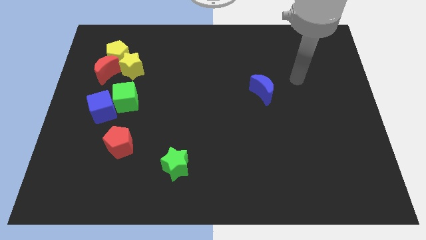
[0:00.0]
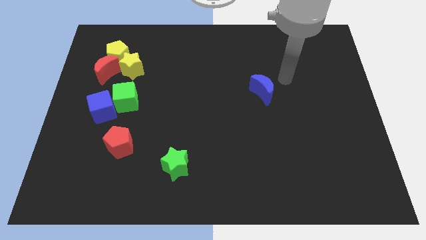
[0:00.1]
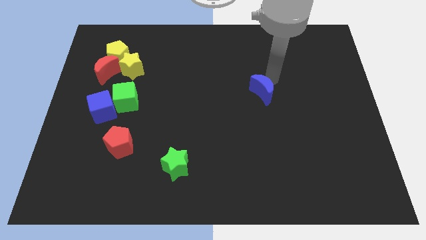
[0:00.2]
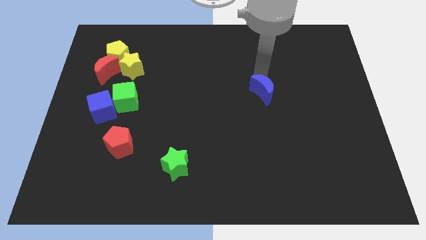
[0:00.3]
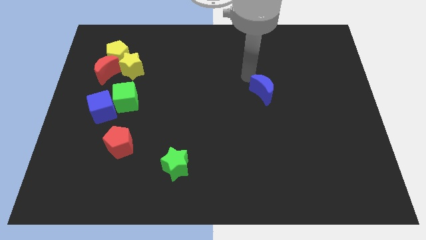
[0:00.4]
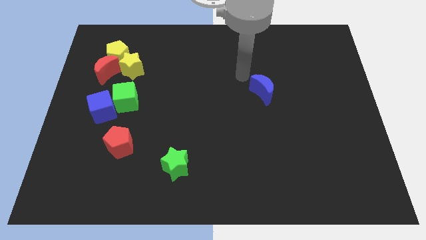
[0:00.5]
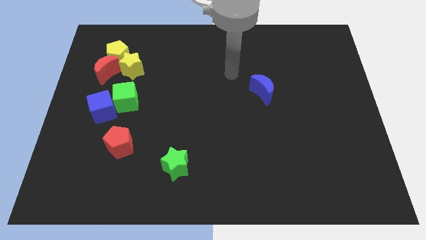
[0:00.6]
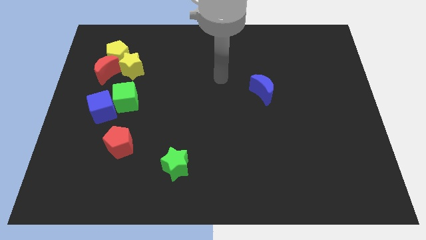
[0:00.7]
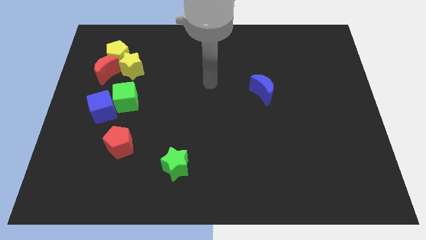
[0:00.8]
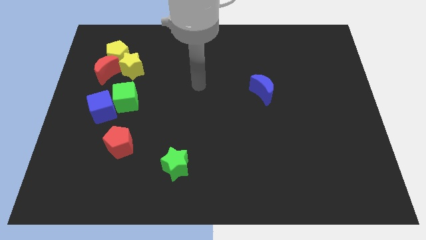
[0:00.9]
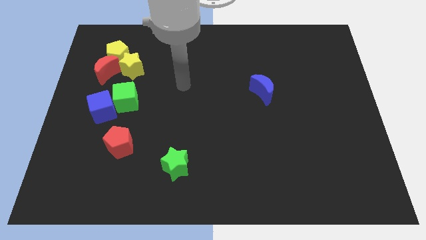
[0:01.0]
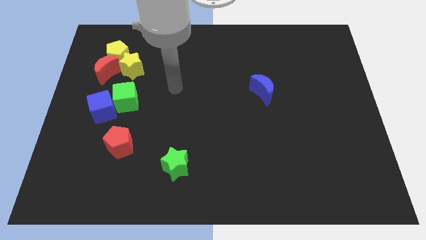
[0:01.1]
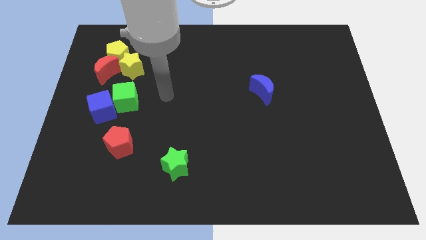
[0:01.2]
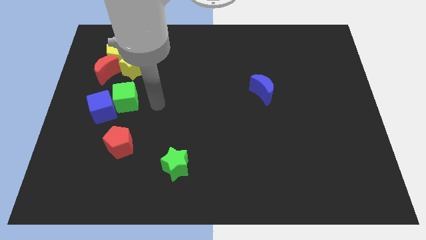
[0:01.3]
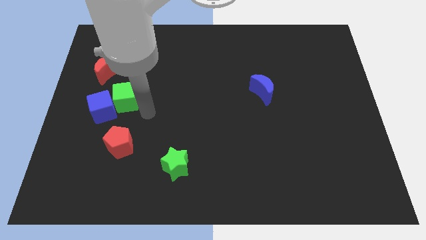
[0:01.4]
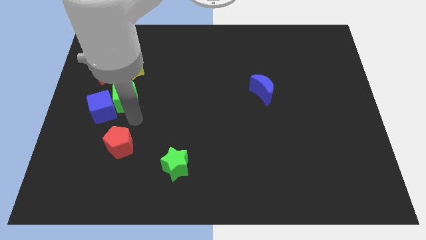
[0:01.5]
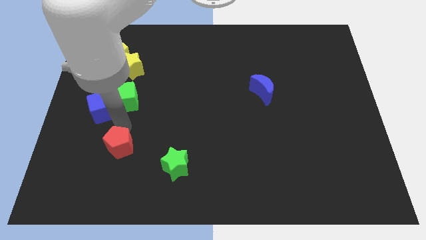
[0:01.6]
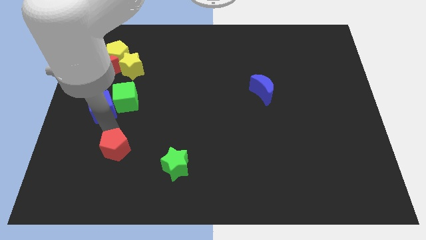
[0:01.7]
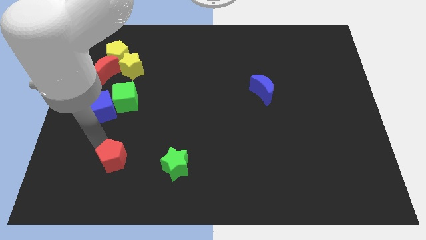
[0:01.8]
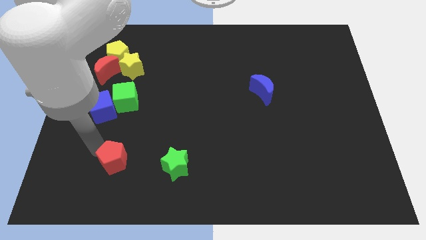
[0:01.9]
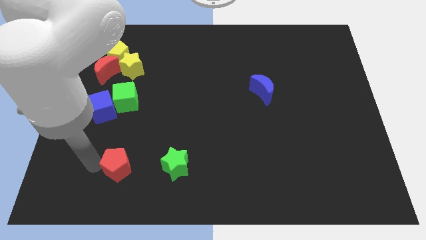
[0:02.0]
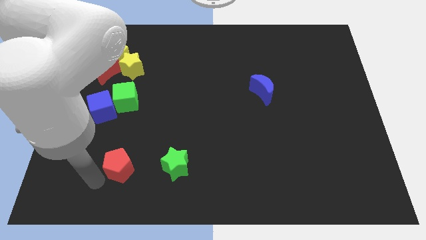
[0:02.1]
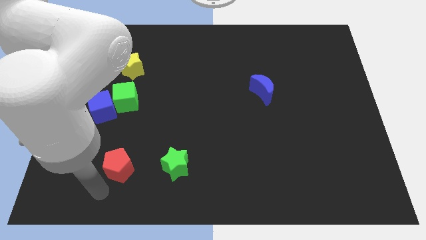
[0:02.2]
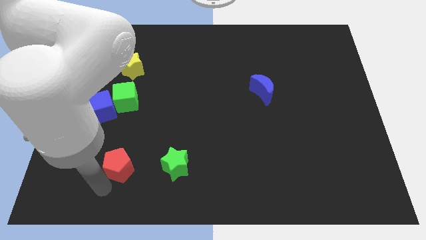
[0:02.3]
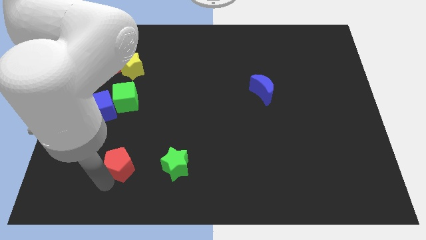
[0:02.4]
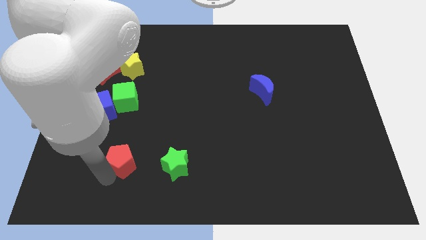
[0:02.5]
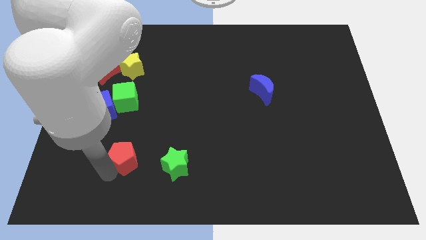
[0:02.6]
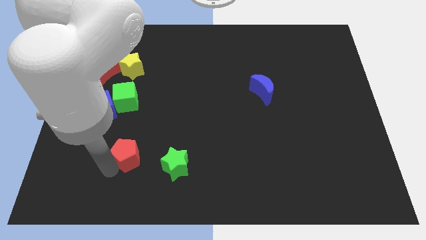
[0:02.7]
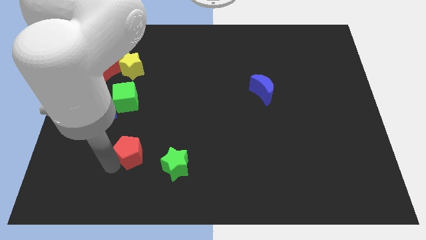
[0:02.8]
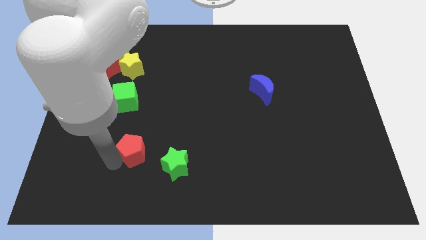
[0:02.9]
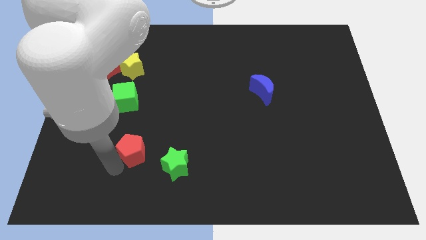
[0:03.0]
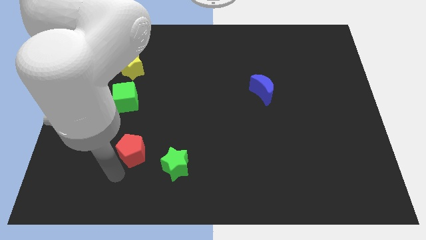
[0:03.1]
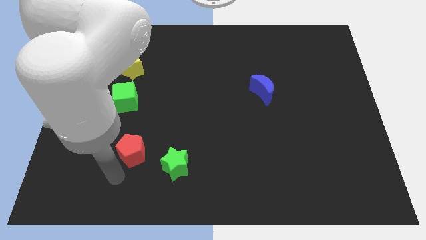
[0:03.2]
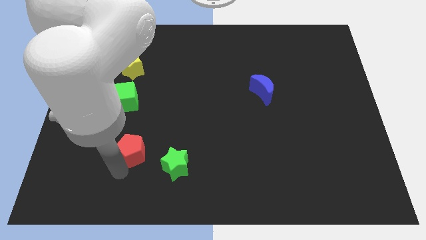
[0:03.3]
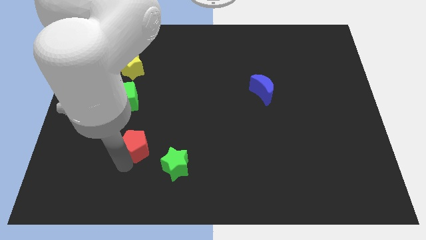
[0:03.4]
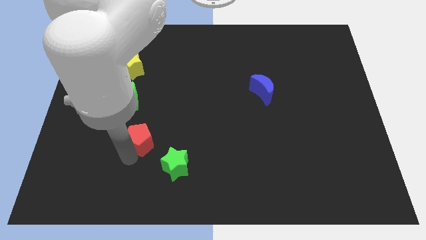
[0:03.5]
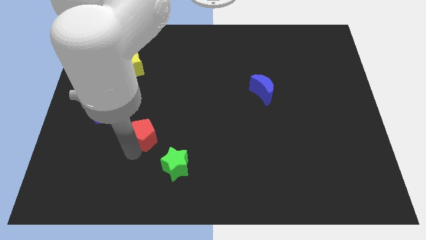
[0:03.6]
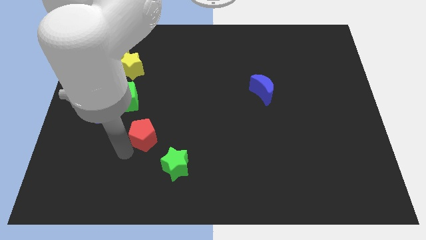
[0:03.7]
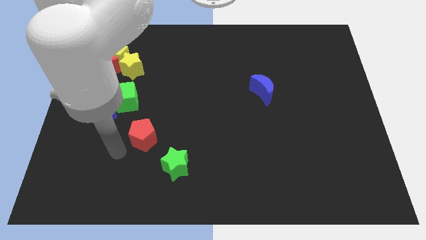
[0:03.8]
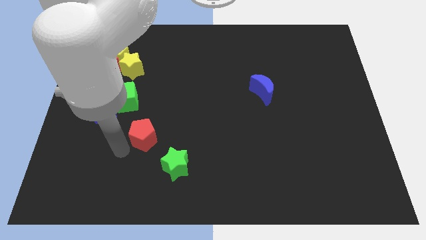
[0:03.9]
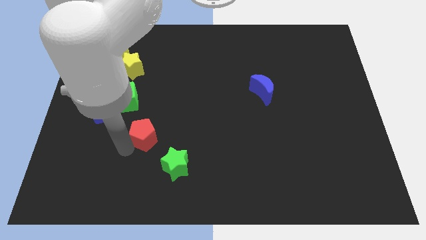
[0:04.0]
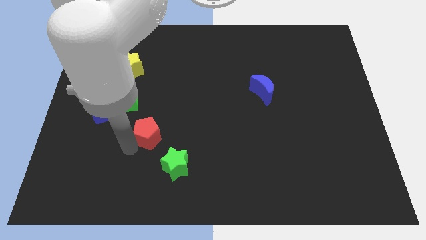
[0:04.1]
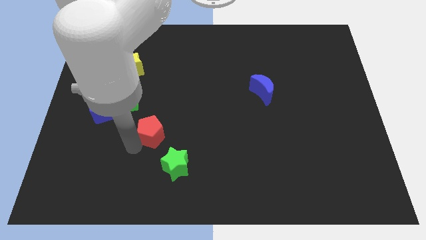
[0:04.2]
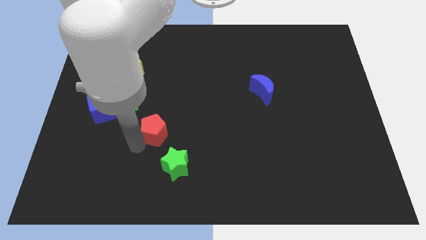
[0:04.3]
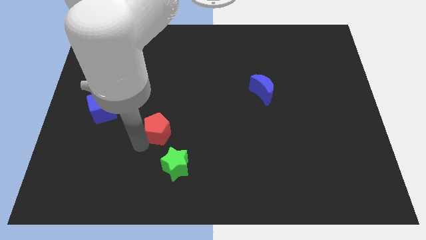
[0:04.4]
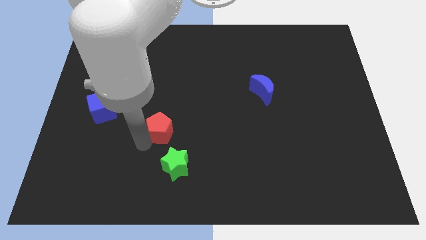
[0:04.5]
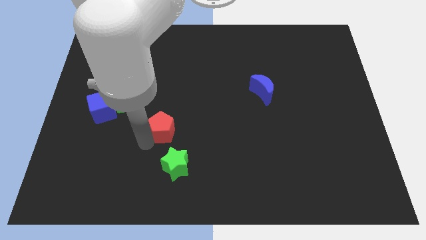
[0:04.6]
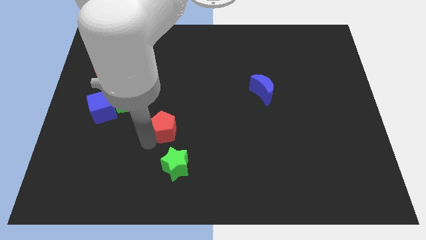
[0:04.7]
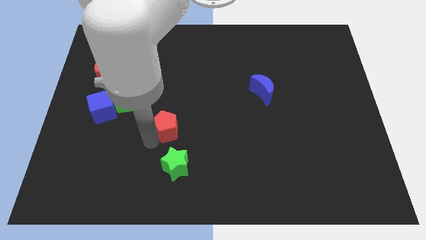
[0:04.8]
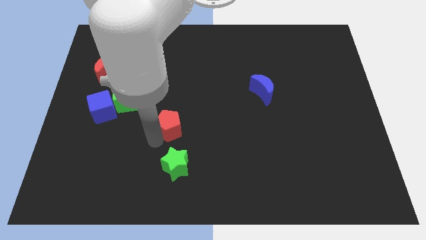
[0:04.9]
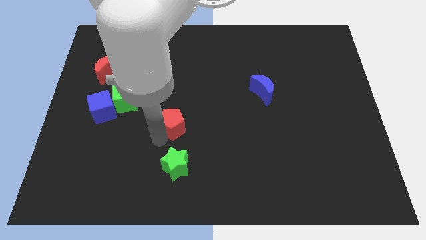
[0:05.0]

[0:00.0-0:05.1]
move the red pentagon to the center of the board

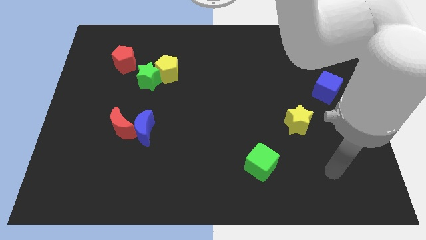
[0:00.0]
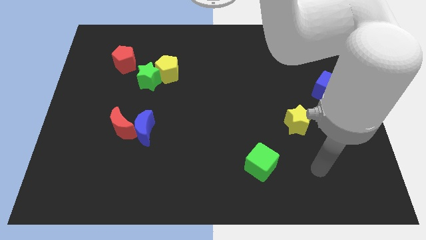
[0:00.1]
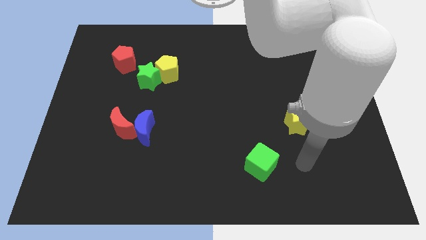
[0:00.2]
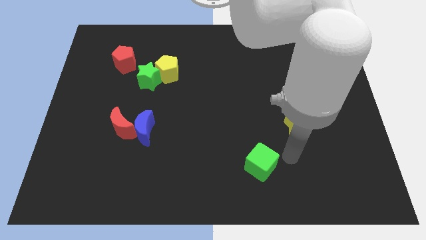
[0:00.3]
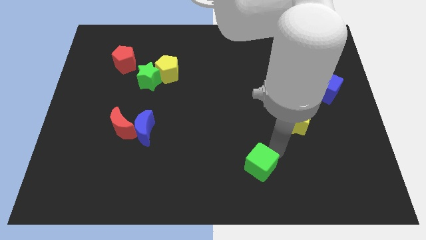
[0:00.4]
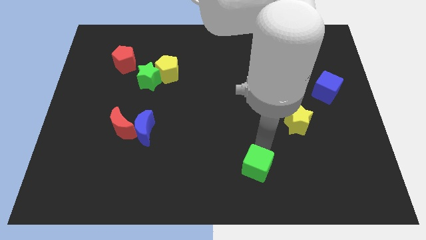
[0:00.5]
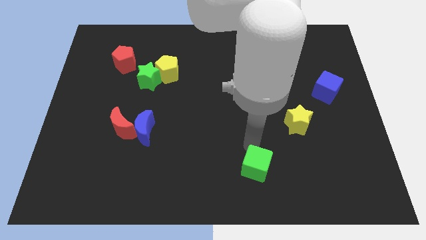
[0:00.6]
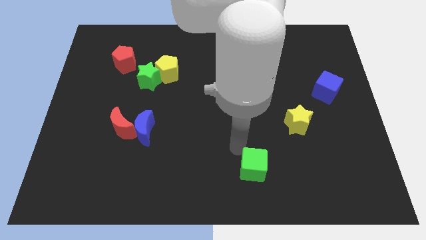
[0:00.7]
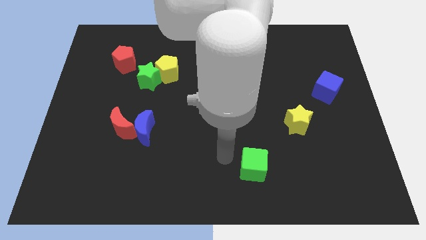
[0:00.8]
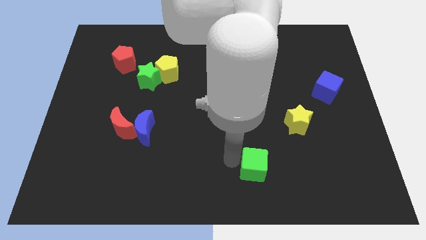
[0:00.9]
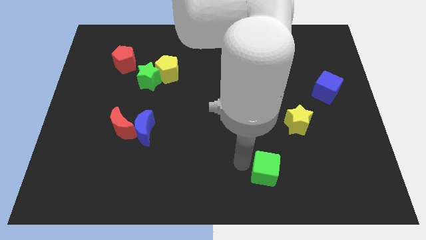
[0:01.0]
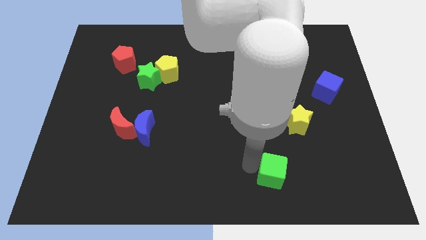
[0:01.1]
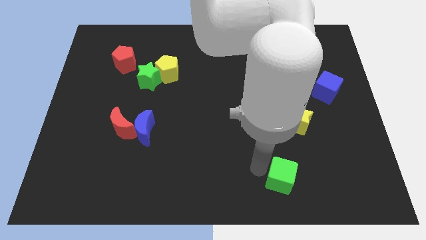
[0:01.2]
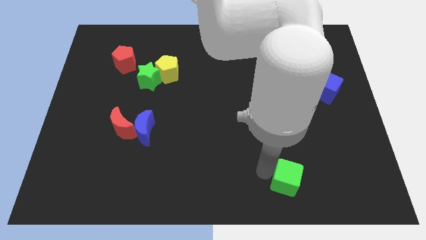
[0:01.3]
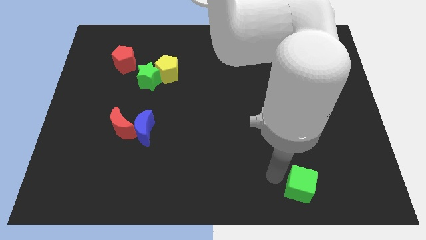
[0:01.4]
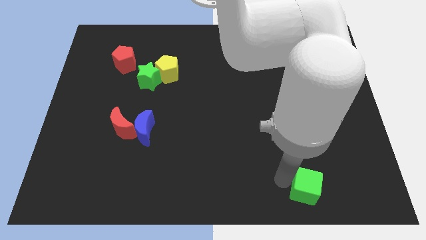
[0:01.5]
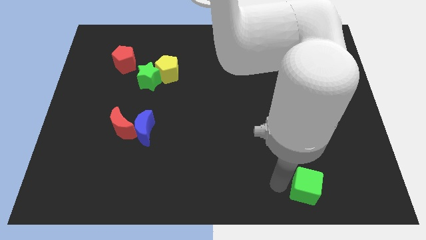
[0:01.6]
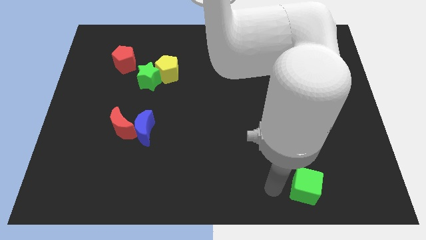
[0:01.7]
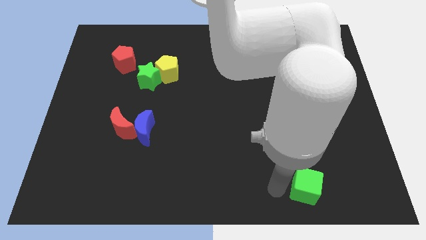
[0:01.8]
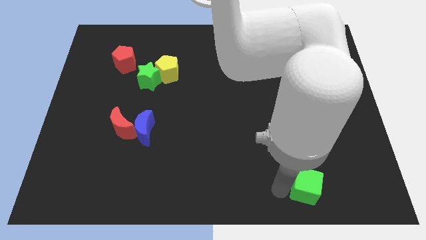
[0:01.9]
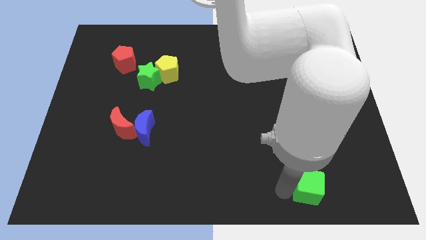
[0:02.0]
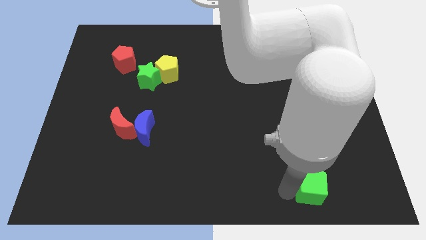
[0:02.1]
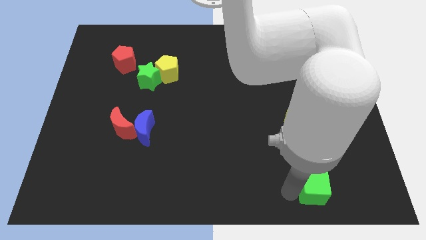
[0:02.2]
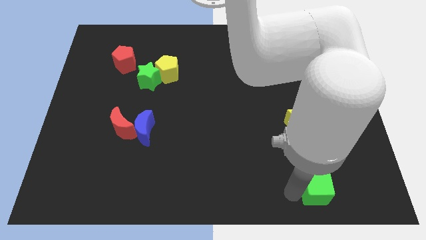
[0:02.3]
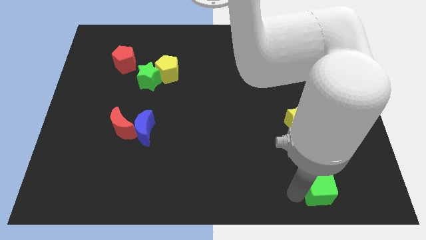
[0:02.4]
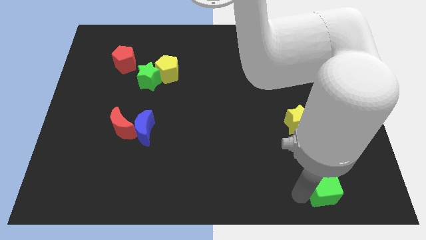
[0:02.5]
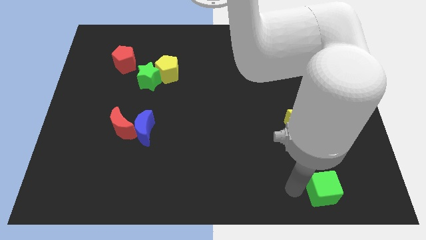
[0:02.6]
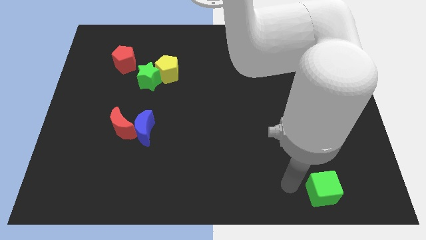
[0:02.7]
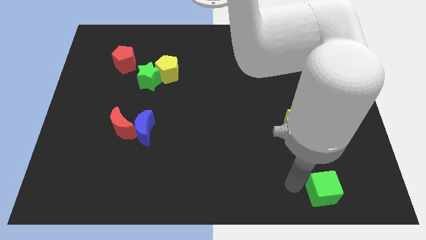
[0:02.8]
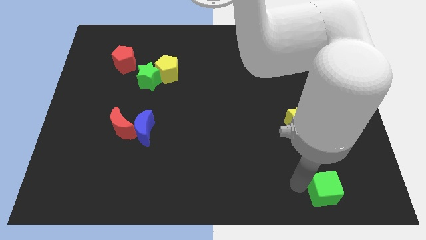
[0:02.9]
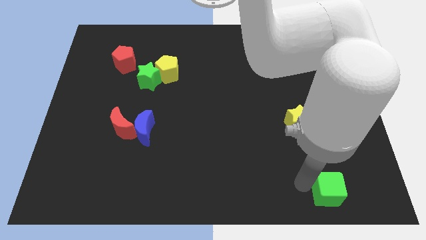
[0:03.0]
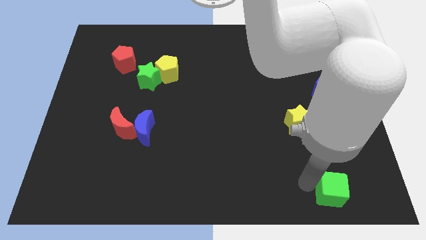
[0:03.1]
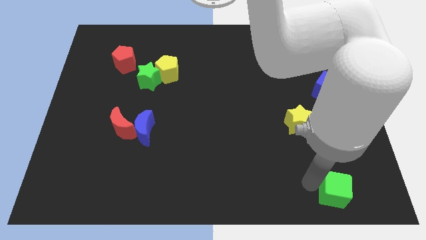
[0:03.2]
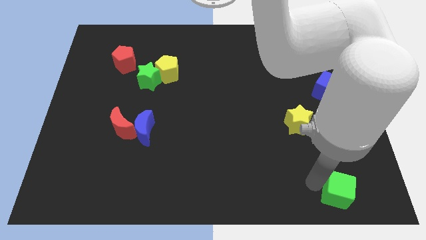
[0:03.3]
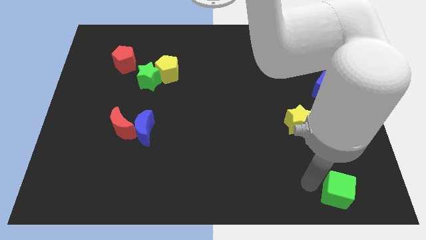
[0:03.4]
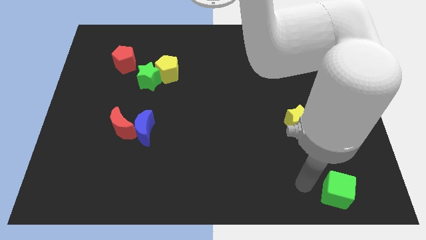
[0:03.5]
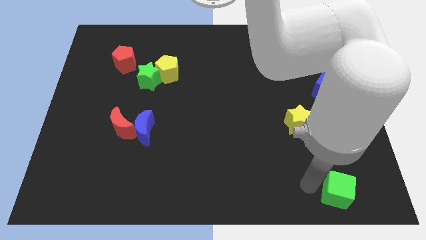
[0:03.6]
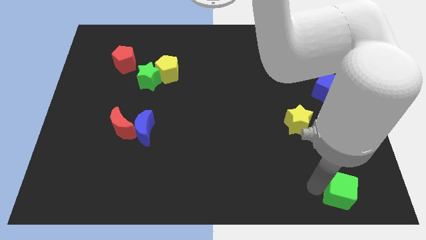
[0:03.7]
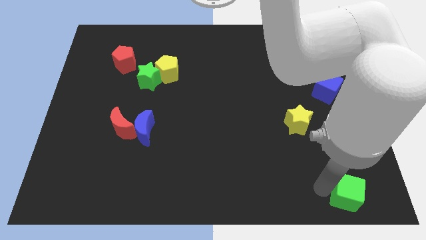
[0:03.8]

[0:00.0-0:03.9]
slide the green cube to the lower right corner
